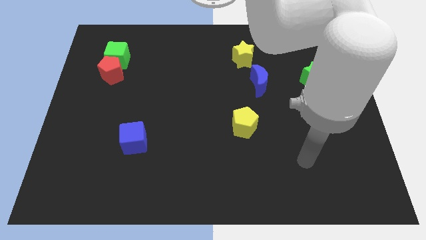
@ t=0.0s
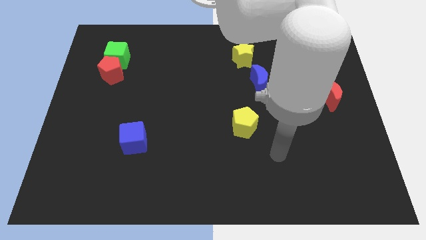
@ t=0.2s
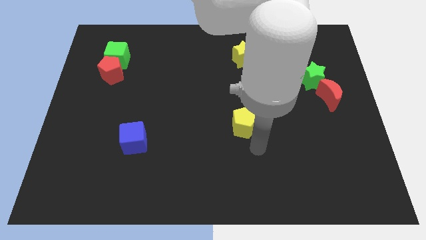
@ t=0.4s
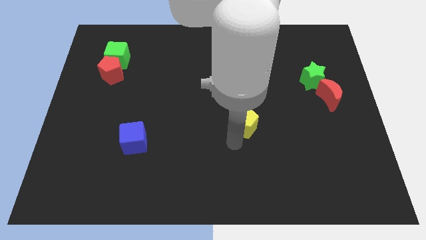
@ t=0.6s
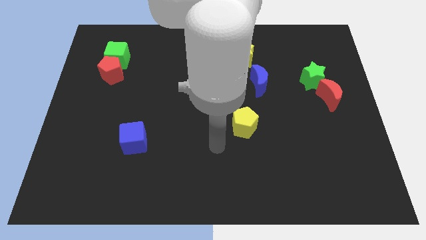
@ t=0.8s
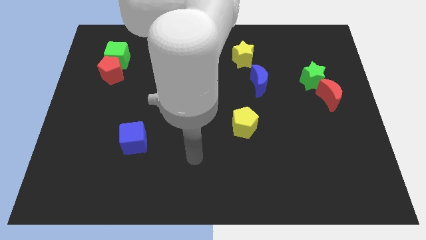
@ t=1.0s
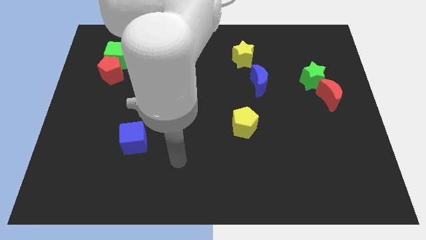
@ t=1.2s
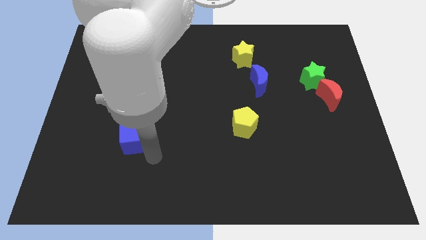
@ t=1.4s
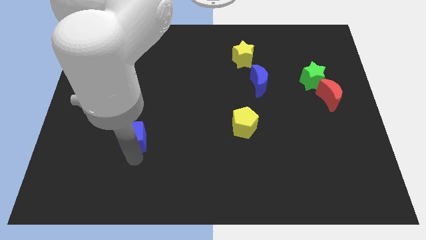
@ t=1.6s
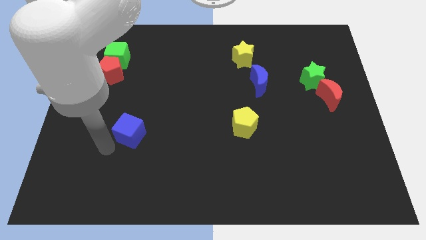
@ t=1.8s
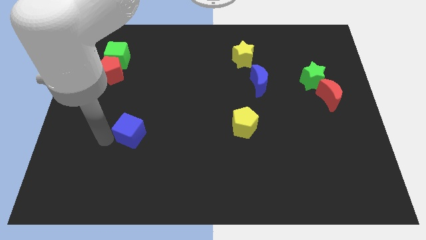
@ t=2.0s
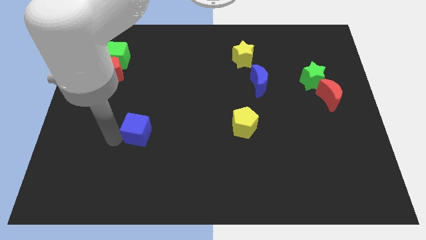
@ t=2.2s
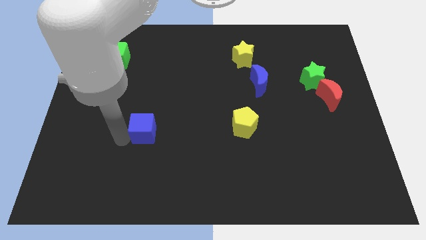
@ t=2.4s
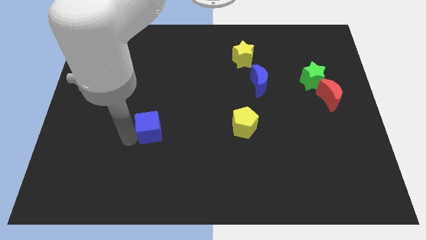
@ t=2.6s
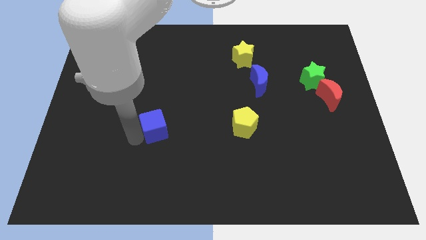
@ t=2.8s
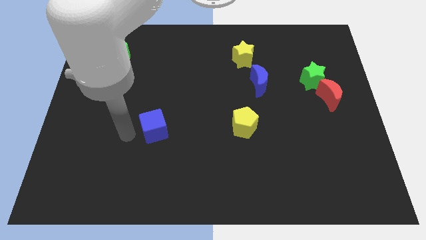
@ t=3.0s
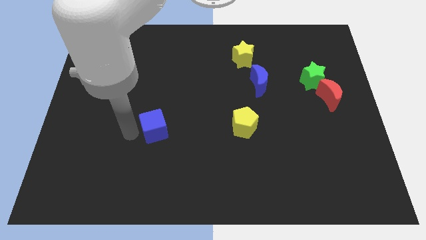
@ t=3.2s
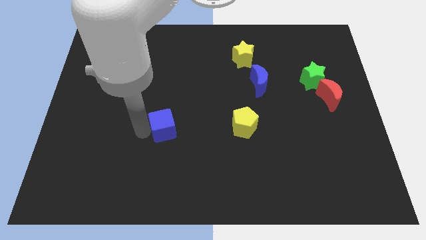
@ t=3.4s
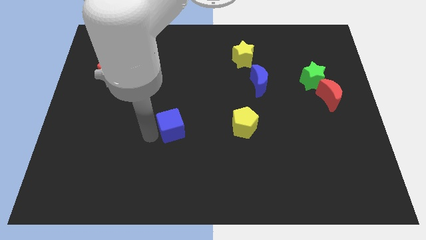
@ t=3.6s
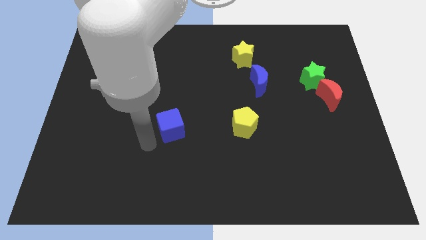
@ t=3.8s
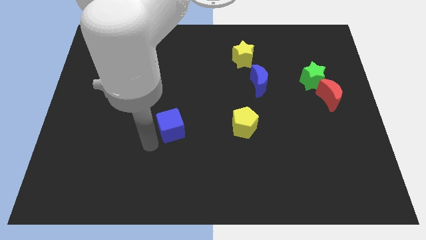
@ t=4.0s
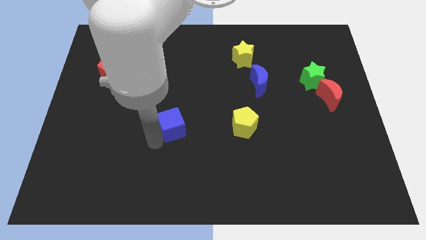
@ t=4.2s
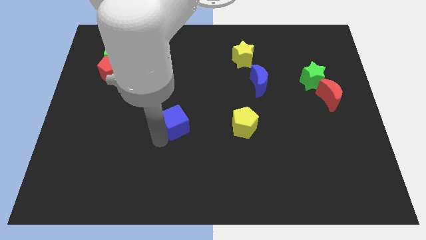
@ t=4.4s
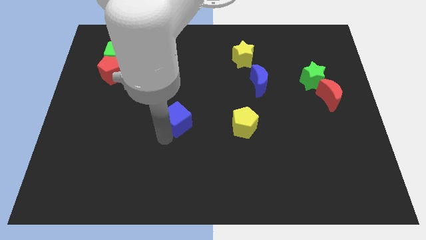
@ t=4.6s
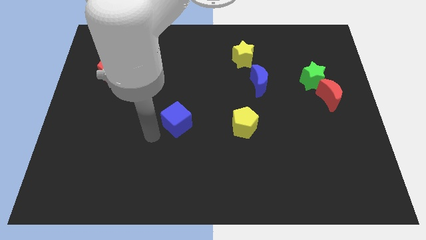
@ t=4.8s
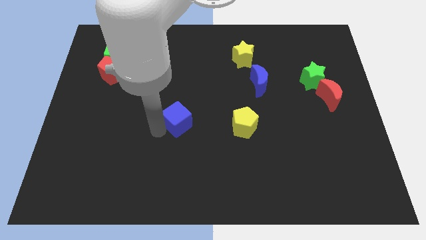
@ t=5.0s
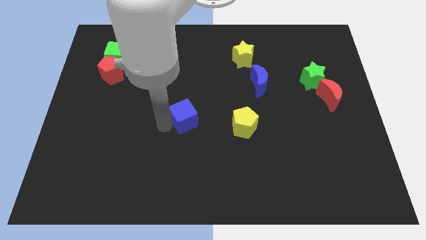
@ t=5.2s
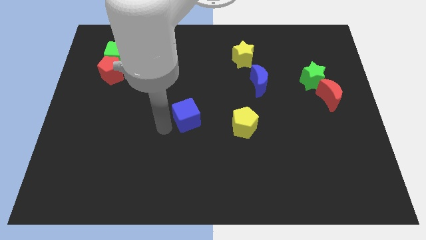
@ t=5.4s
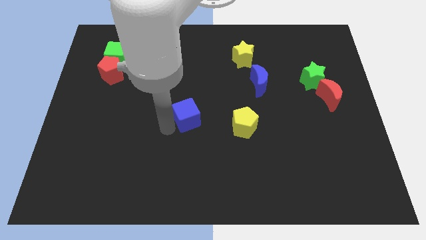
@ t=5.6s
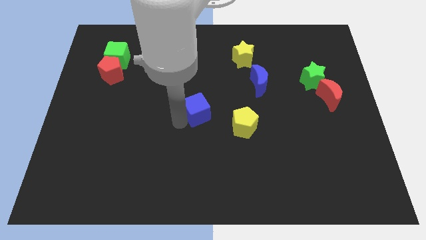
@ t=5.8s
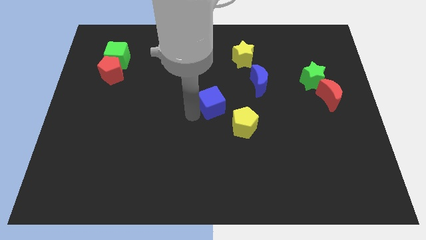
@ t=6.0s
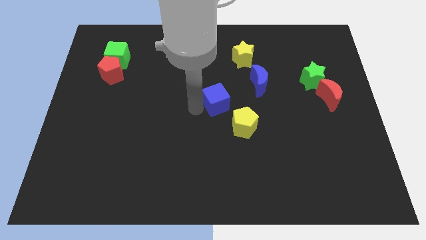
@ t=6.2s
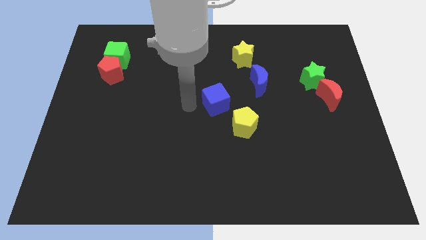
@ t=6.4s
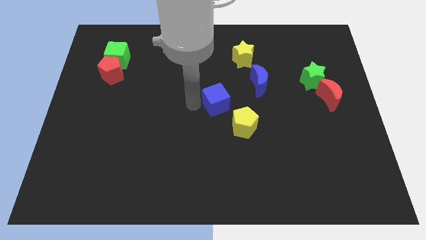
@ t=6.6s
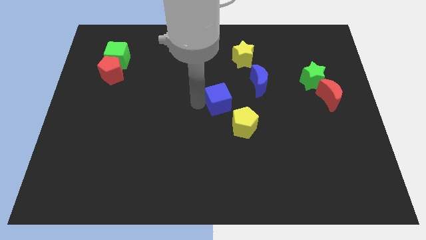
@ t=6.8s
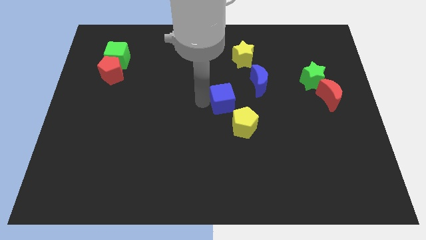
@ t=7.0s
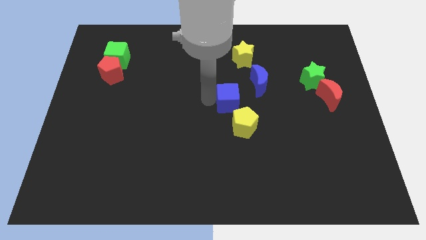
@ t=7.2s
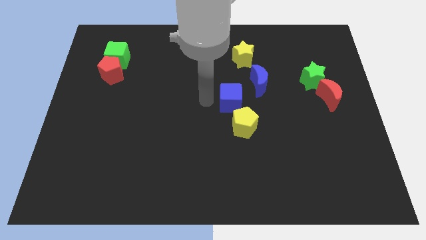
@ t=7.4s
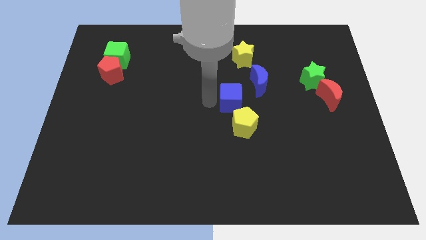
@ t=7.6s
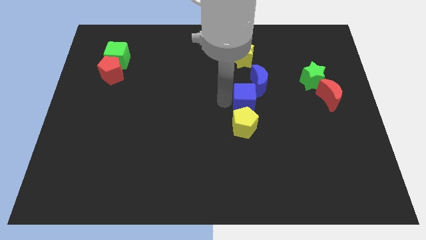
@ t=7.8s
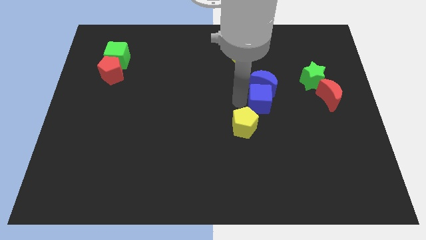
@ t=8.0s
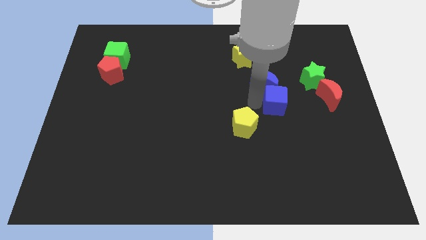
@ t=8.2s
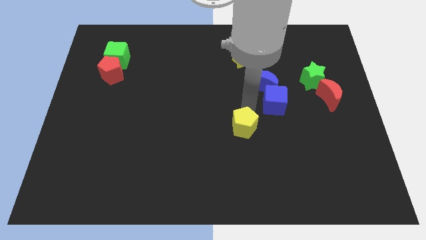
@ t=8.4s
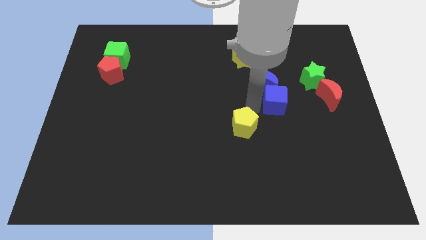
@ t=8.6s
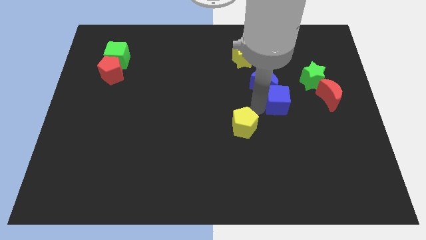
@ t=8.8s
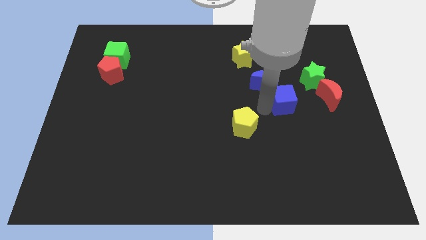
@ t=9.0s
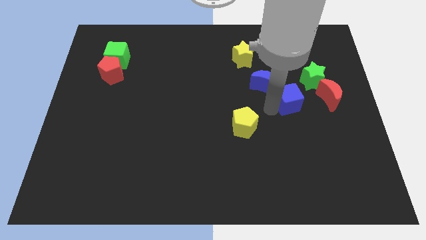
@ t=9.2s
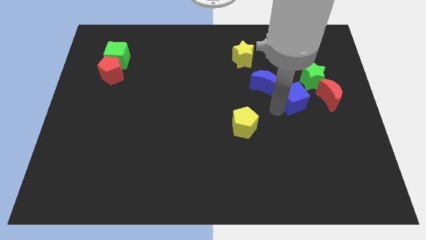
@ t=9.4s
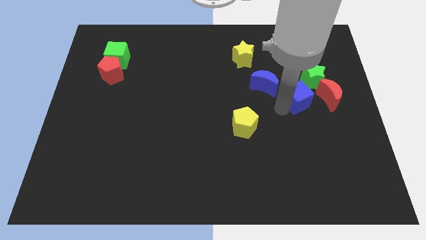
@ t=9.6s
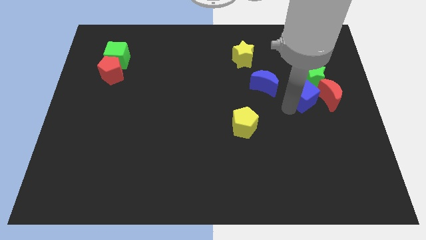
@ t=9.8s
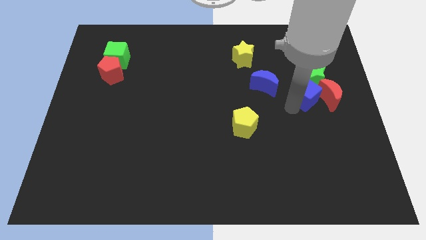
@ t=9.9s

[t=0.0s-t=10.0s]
put the blue cube next to the green star

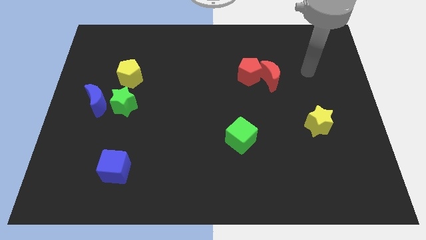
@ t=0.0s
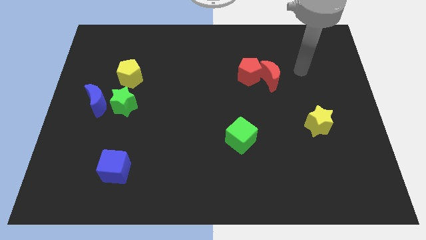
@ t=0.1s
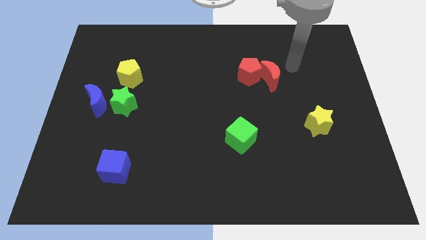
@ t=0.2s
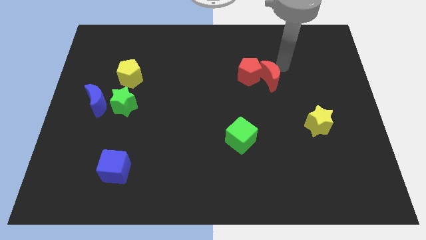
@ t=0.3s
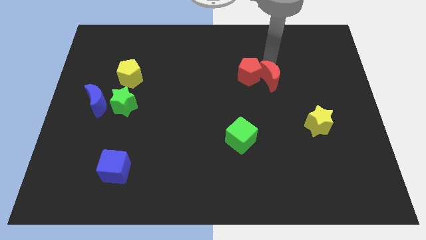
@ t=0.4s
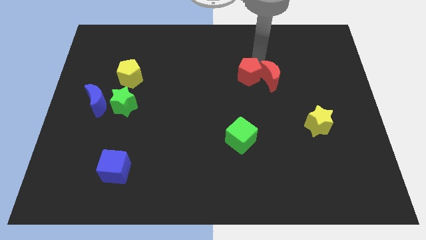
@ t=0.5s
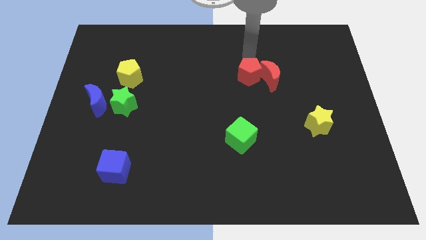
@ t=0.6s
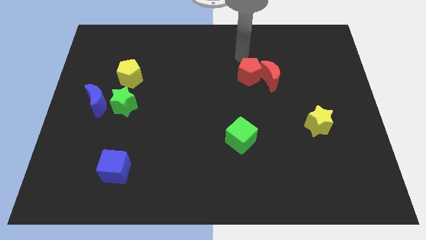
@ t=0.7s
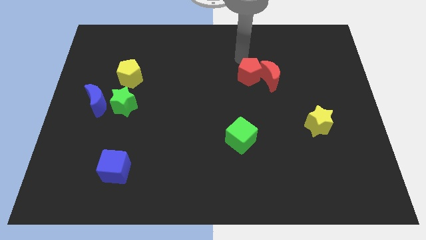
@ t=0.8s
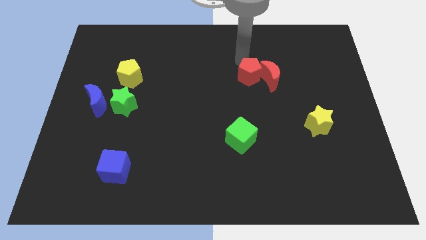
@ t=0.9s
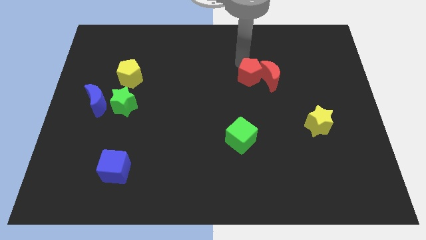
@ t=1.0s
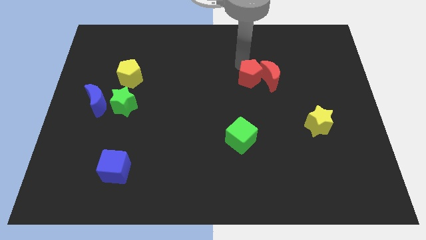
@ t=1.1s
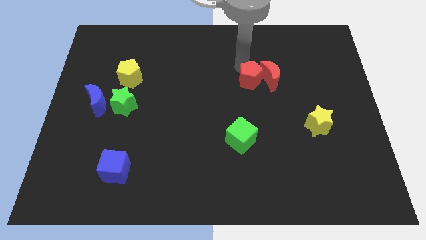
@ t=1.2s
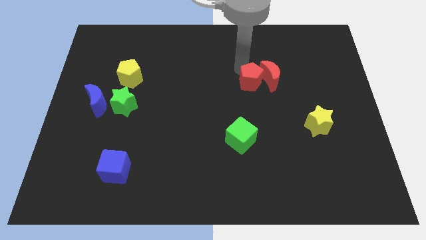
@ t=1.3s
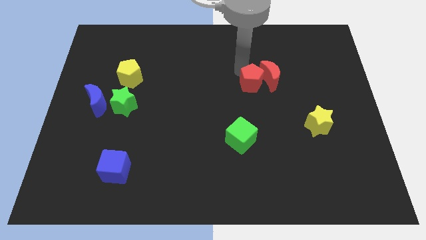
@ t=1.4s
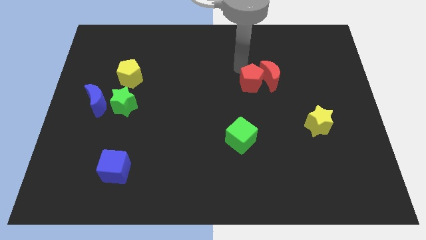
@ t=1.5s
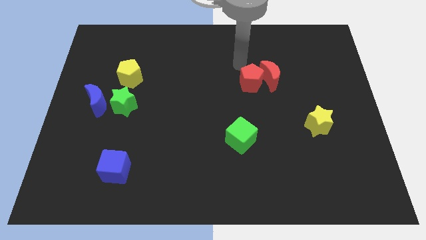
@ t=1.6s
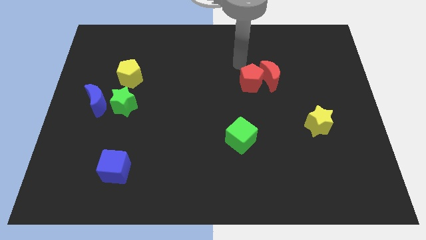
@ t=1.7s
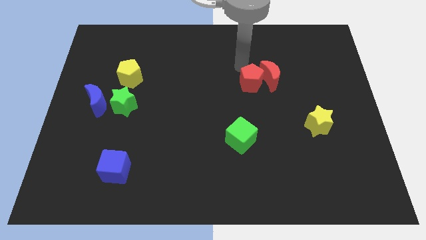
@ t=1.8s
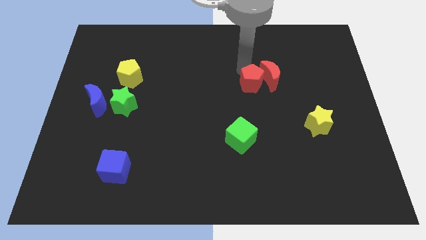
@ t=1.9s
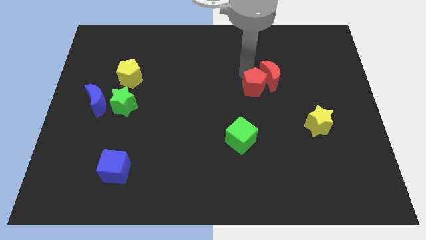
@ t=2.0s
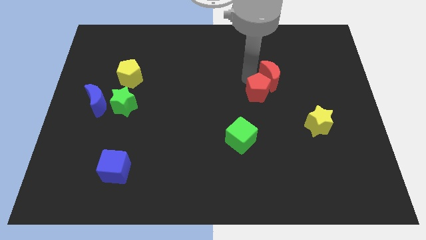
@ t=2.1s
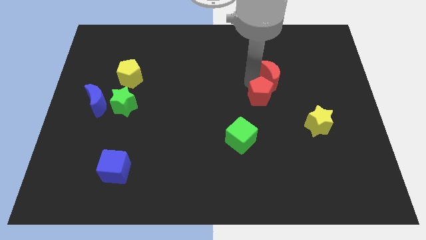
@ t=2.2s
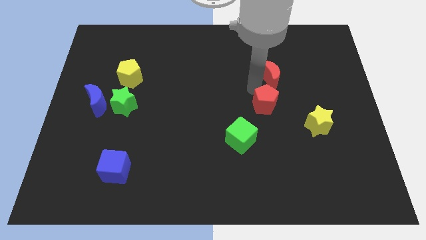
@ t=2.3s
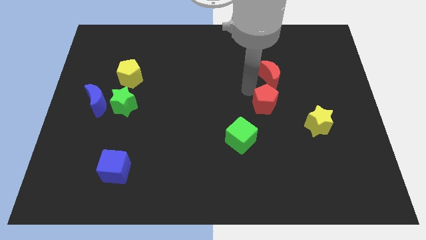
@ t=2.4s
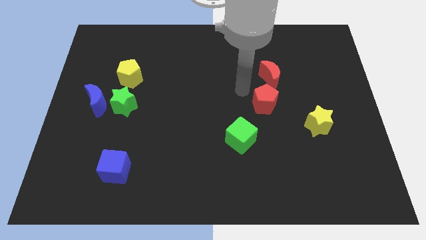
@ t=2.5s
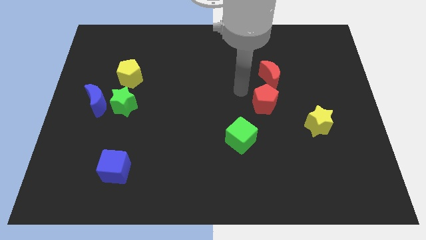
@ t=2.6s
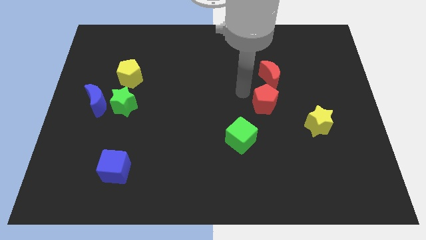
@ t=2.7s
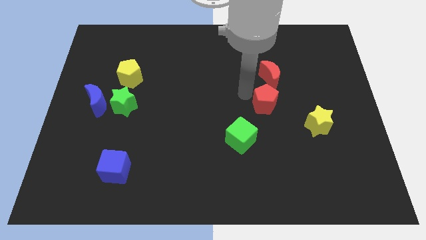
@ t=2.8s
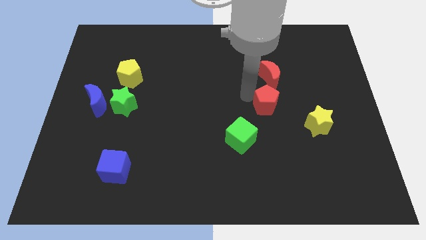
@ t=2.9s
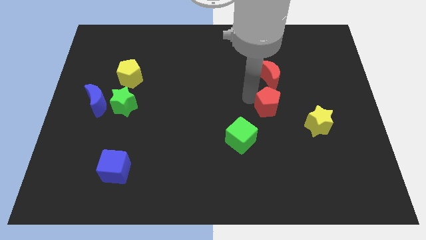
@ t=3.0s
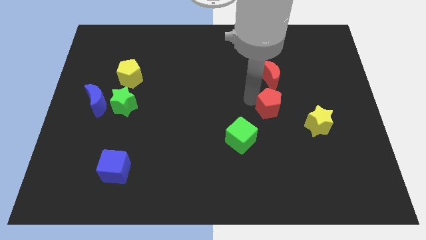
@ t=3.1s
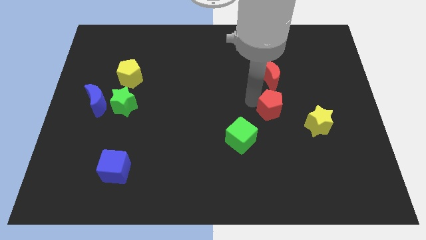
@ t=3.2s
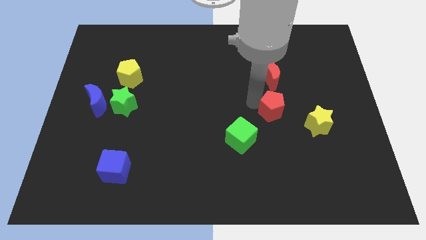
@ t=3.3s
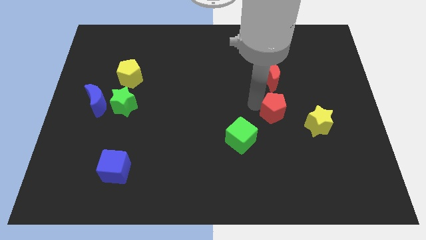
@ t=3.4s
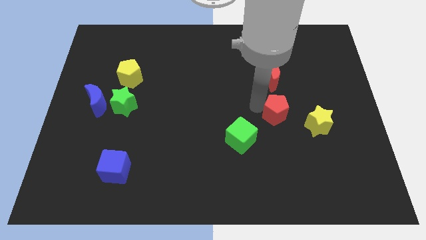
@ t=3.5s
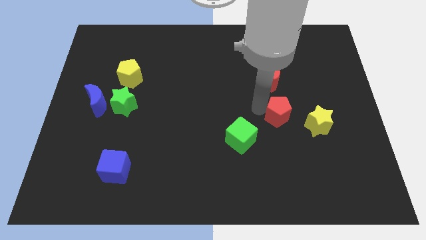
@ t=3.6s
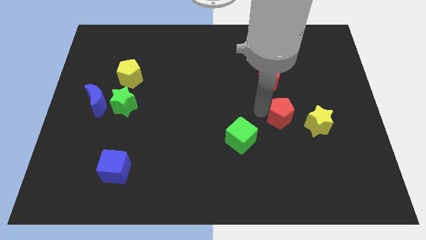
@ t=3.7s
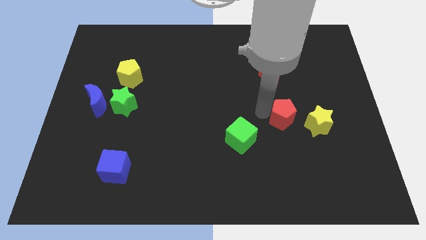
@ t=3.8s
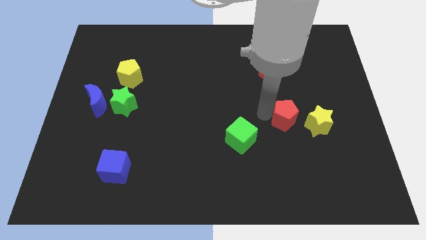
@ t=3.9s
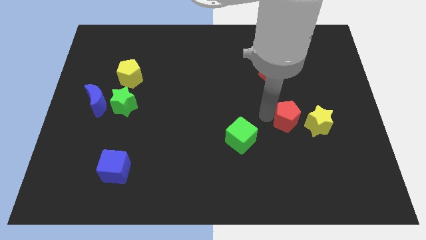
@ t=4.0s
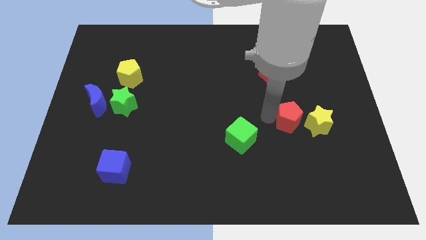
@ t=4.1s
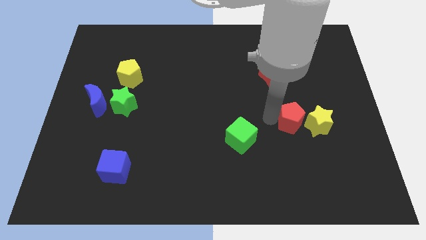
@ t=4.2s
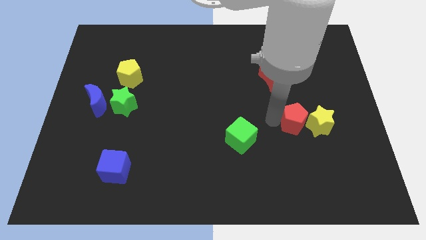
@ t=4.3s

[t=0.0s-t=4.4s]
push the red pentagon towards the yellow star
